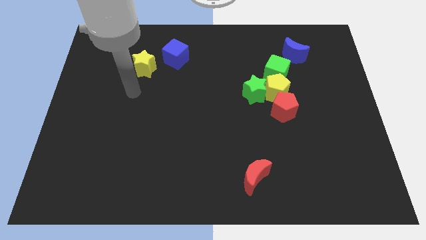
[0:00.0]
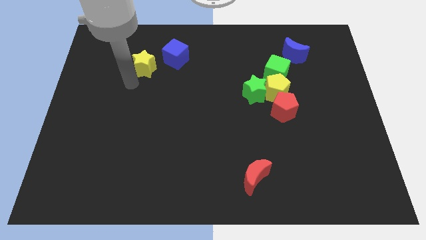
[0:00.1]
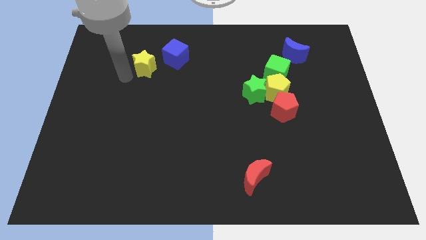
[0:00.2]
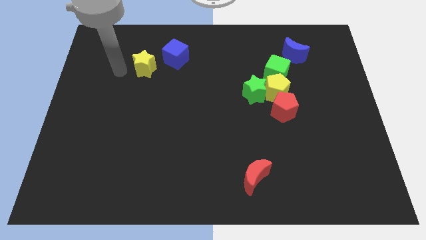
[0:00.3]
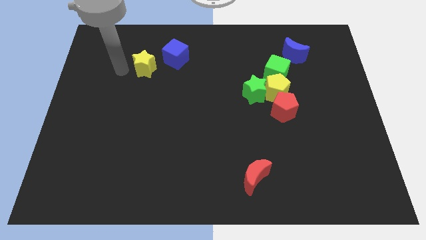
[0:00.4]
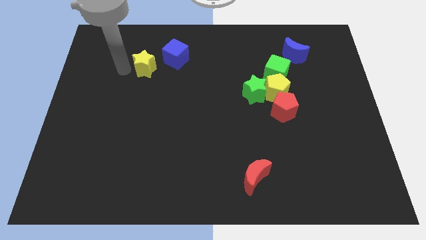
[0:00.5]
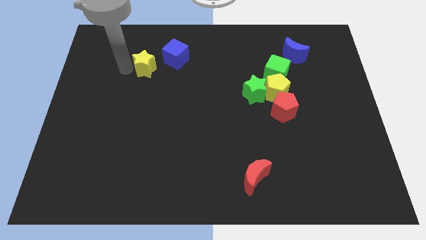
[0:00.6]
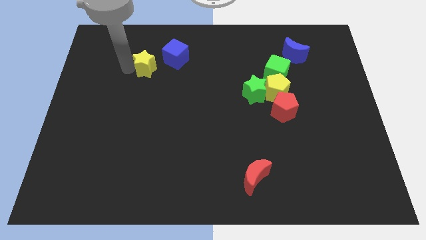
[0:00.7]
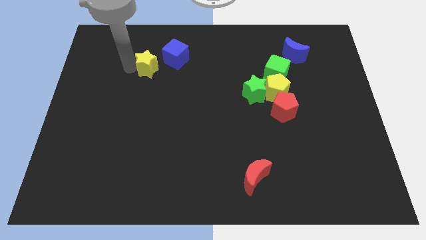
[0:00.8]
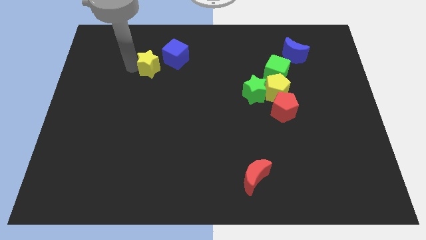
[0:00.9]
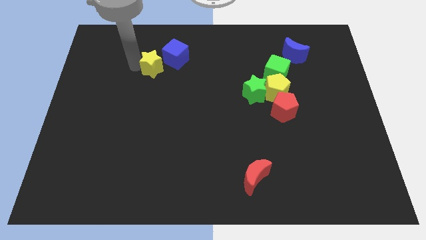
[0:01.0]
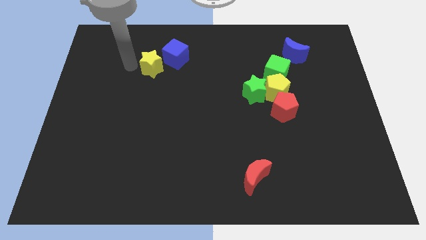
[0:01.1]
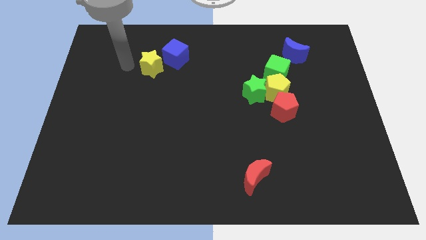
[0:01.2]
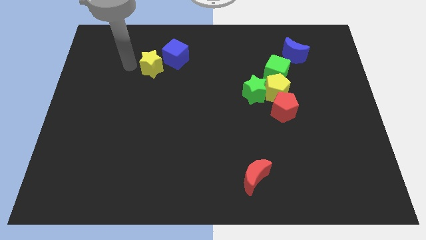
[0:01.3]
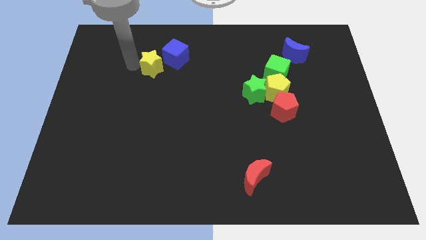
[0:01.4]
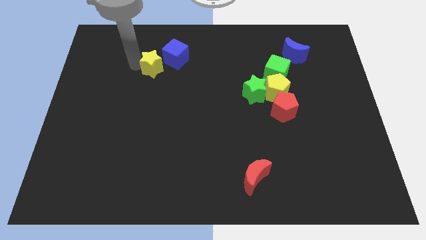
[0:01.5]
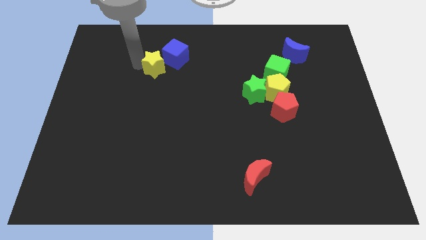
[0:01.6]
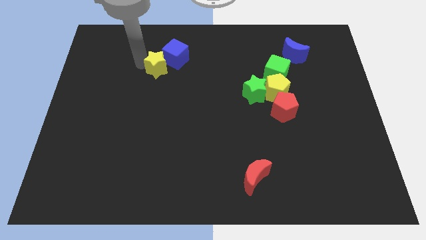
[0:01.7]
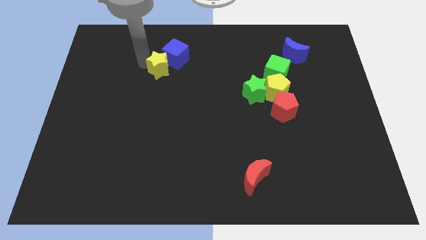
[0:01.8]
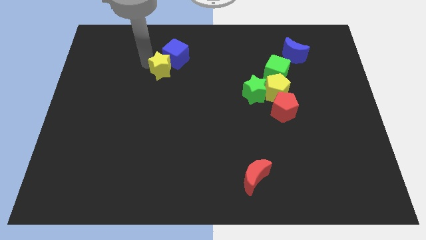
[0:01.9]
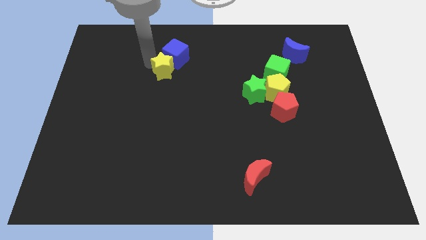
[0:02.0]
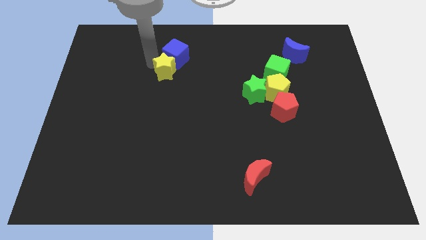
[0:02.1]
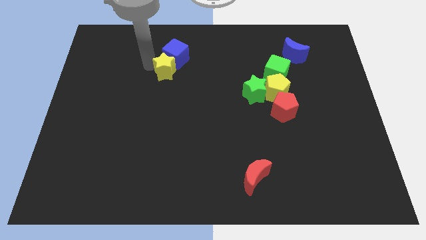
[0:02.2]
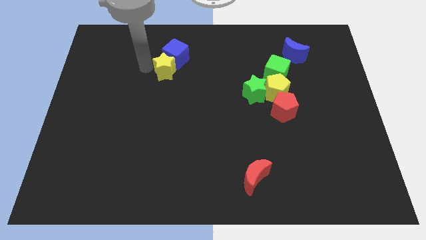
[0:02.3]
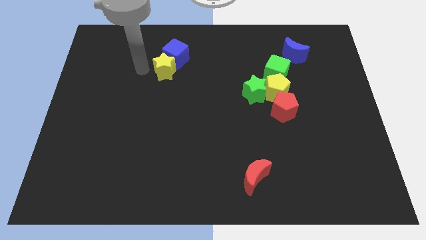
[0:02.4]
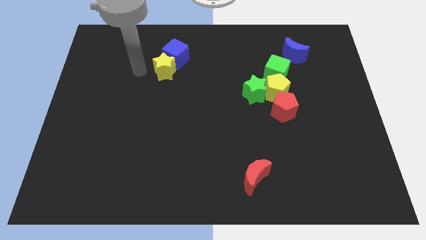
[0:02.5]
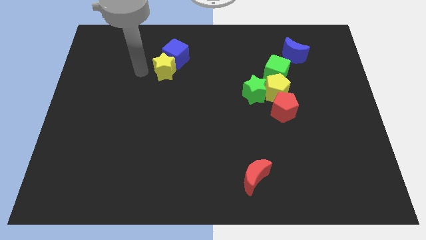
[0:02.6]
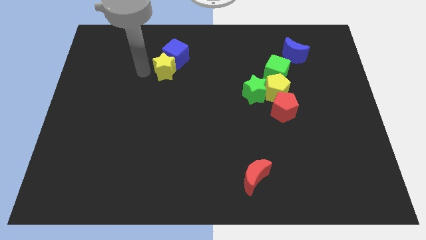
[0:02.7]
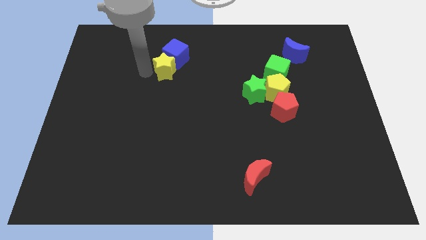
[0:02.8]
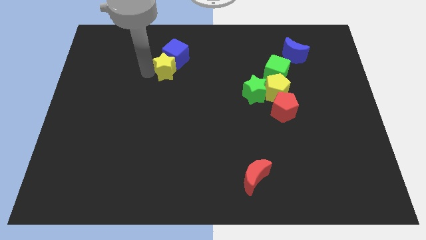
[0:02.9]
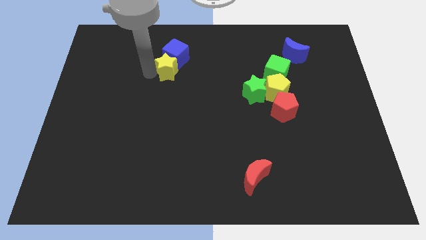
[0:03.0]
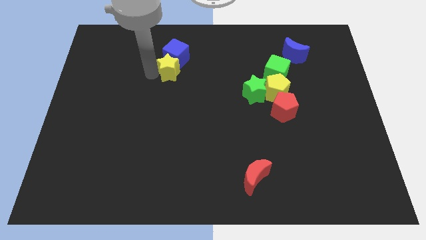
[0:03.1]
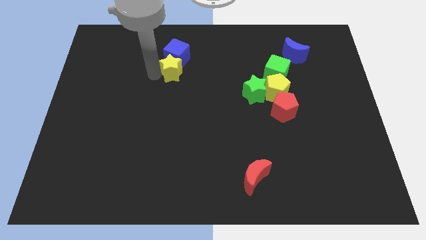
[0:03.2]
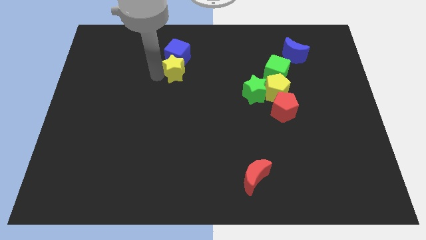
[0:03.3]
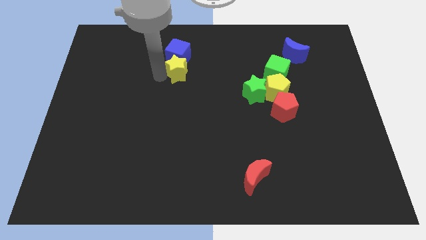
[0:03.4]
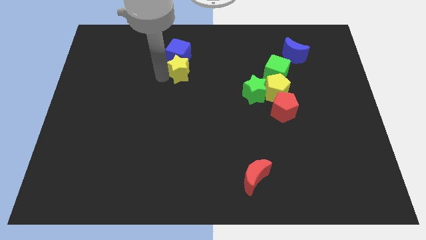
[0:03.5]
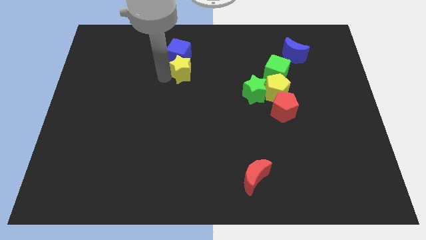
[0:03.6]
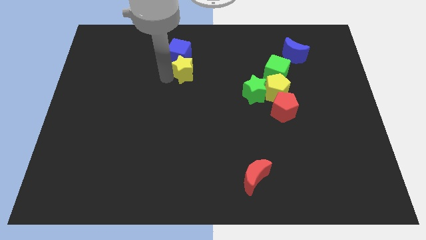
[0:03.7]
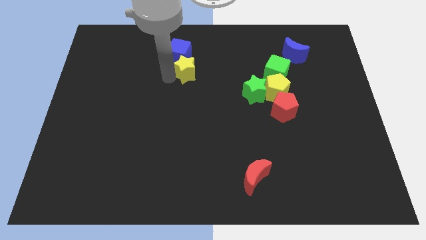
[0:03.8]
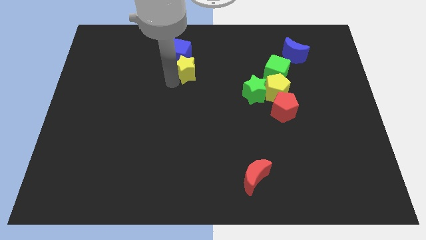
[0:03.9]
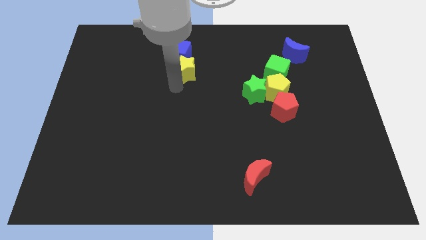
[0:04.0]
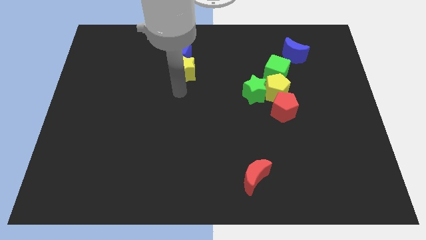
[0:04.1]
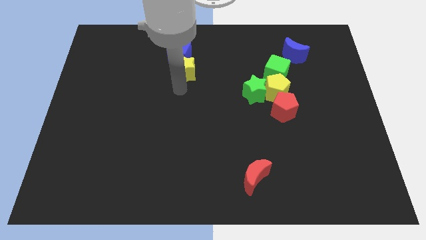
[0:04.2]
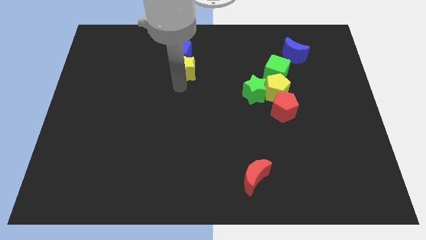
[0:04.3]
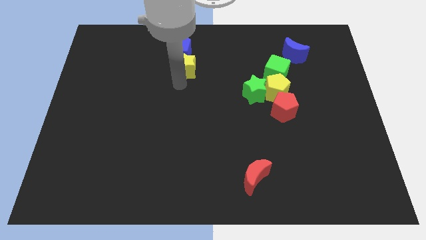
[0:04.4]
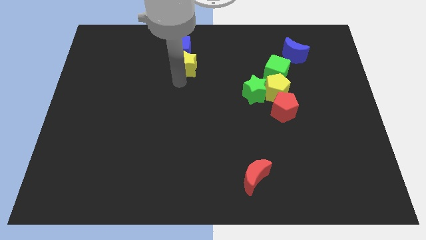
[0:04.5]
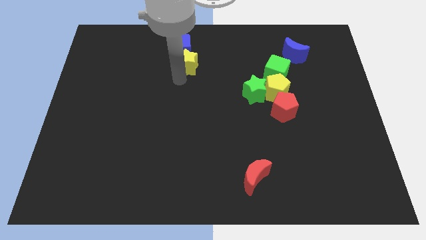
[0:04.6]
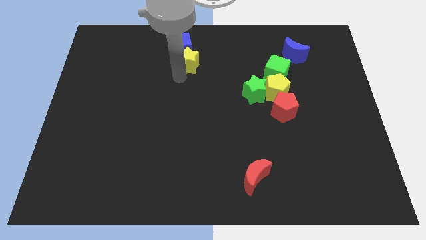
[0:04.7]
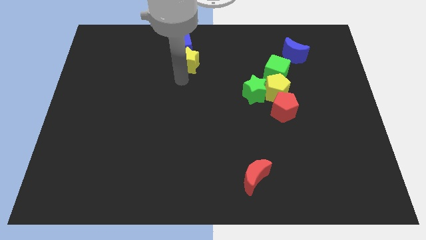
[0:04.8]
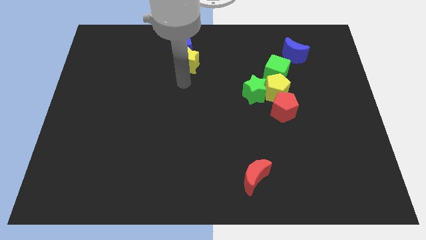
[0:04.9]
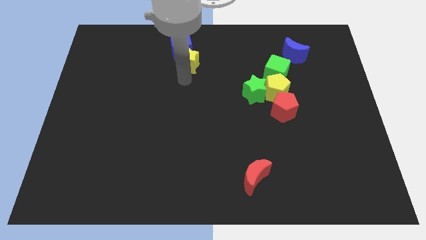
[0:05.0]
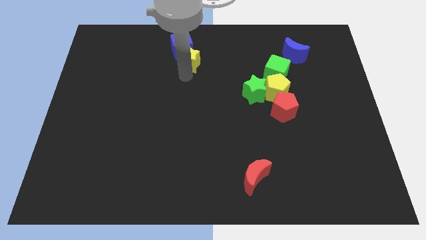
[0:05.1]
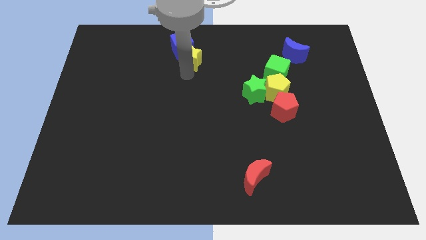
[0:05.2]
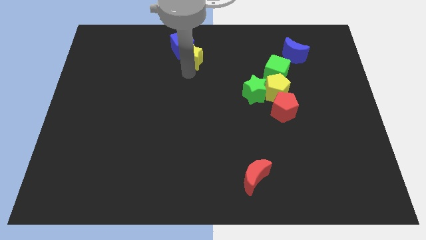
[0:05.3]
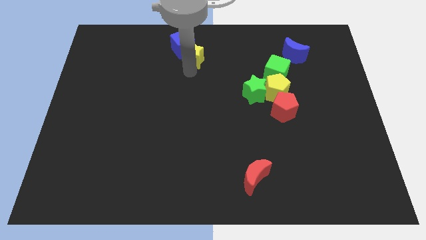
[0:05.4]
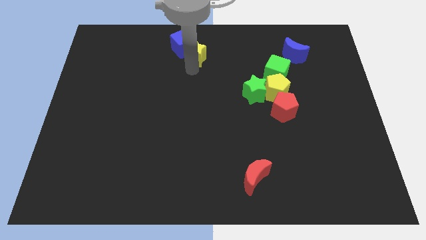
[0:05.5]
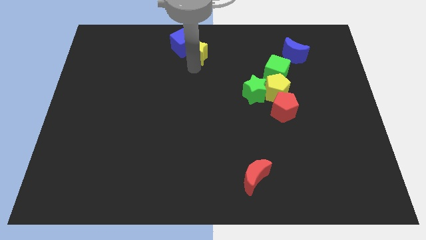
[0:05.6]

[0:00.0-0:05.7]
move the yellow star to the top
